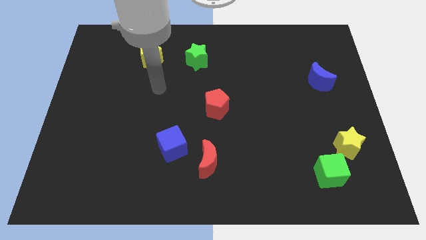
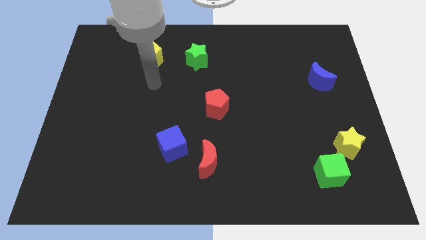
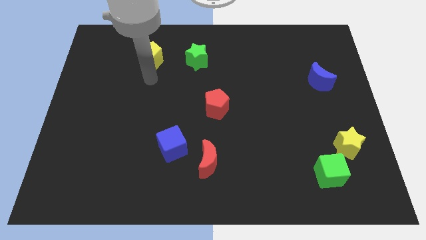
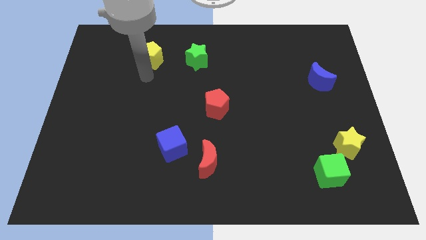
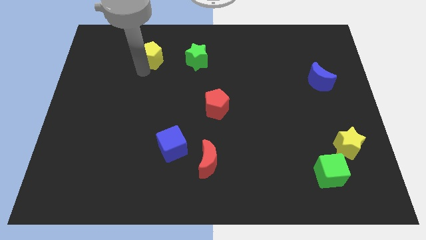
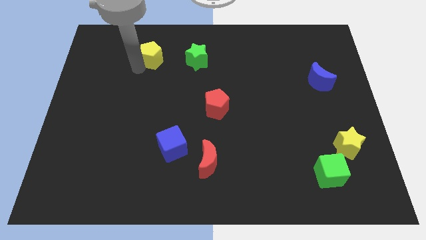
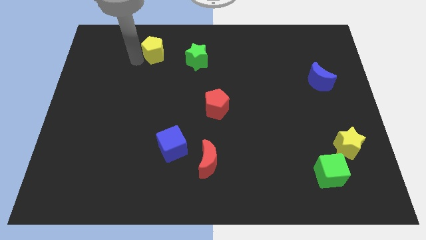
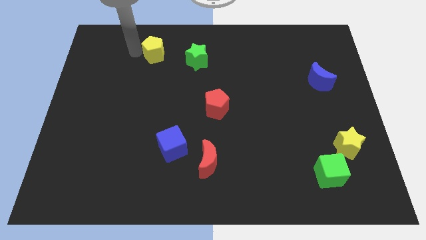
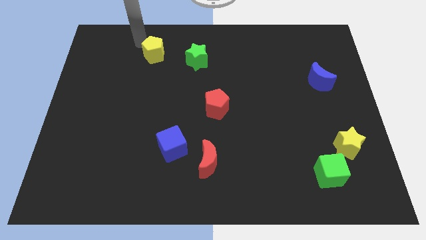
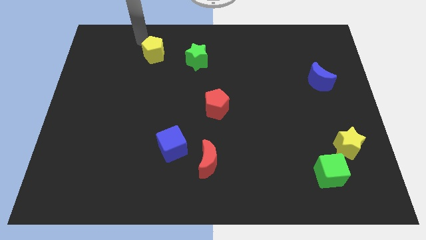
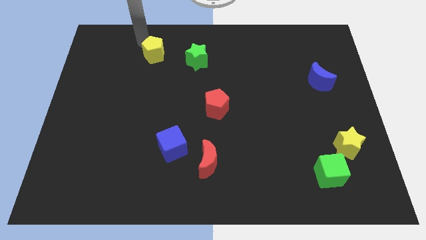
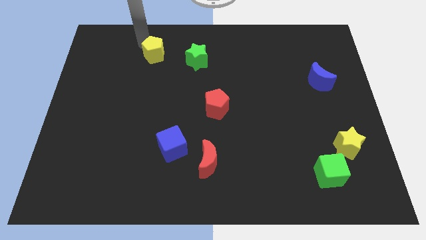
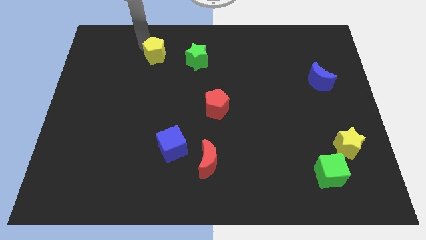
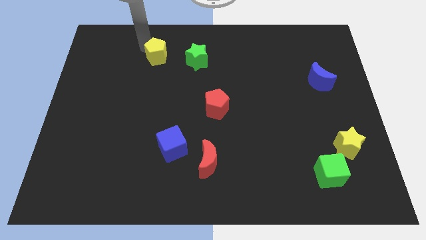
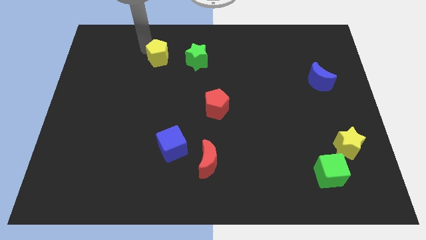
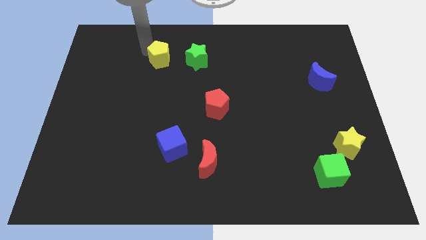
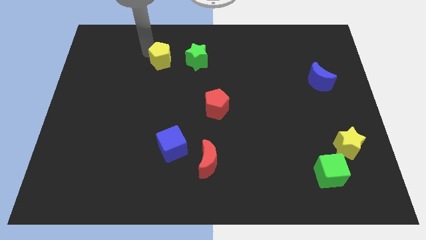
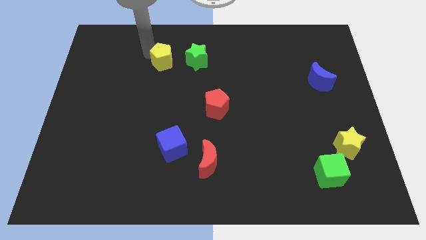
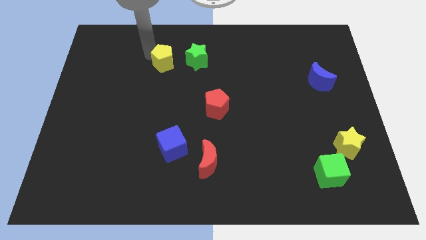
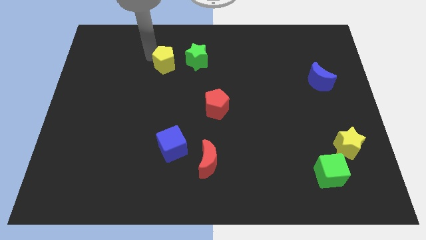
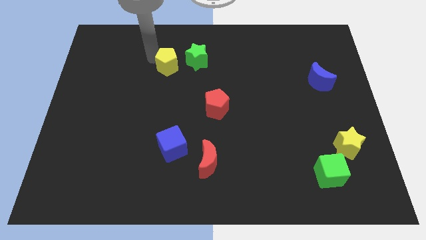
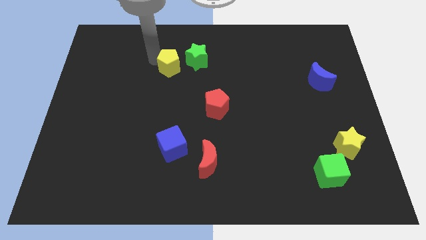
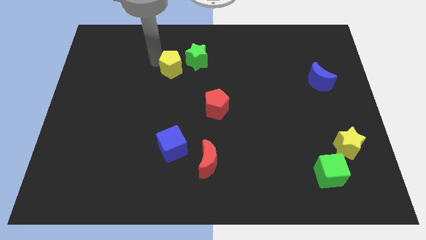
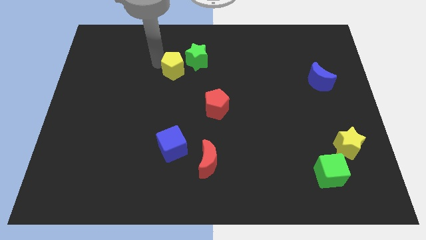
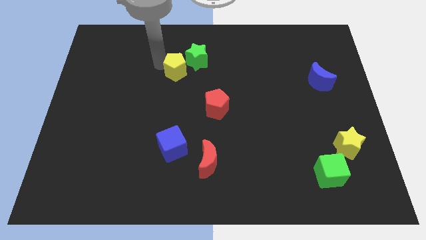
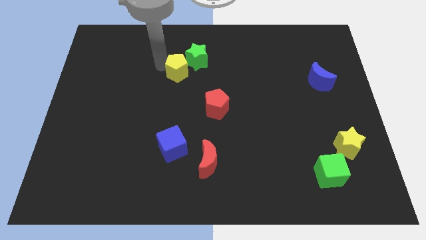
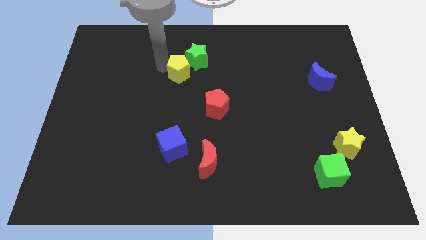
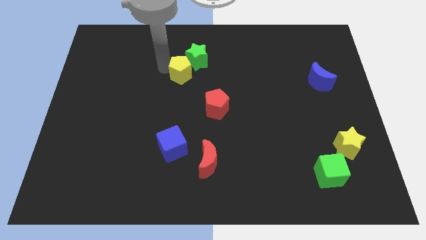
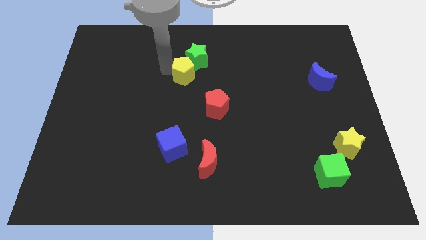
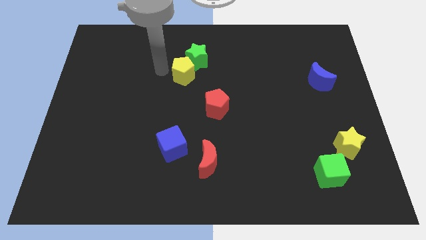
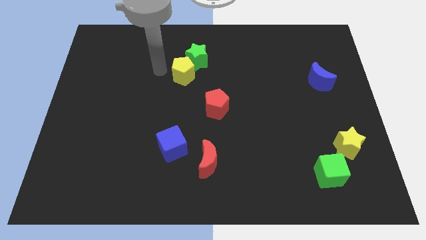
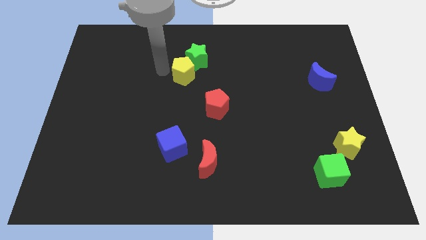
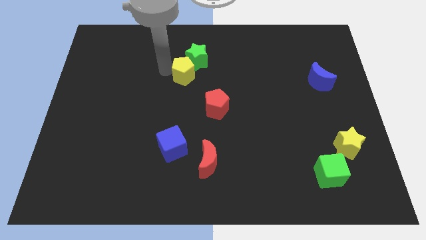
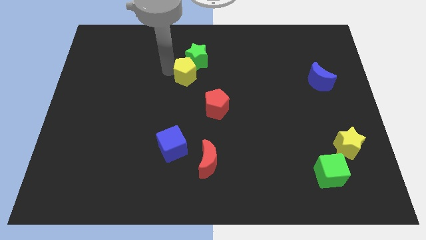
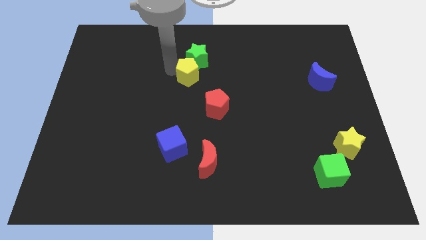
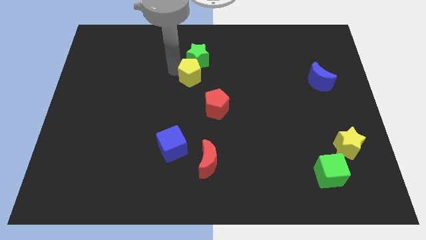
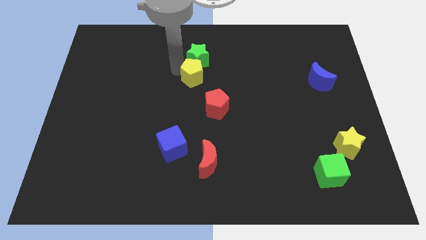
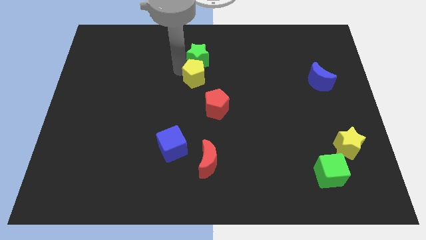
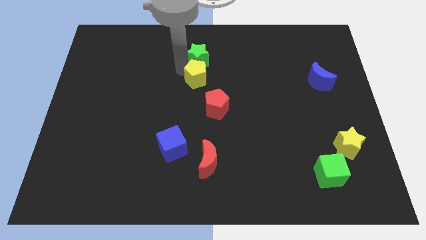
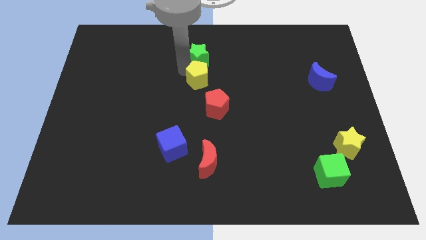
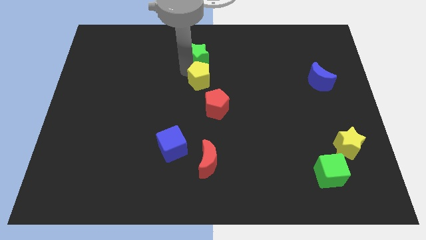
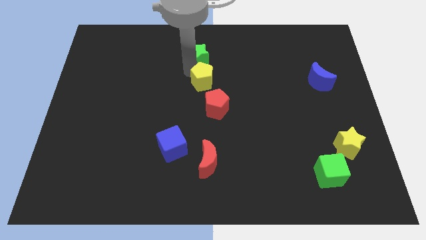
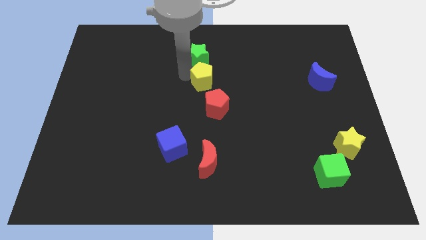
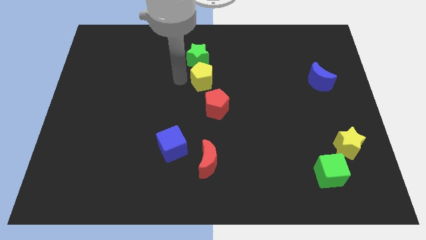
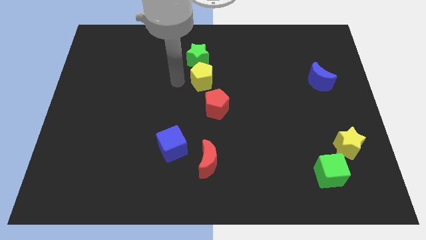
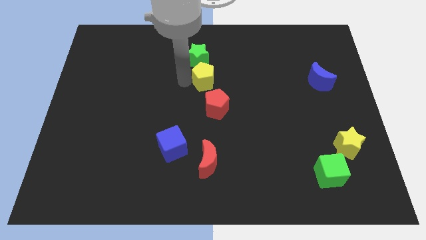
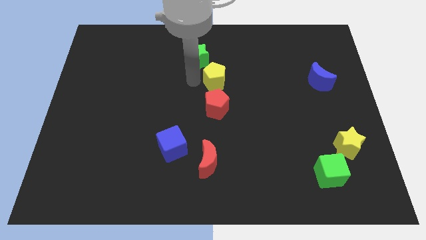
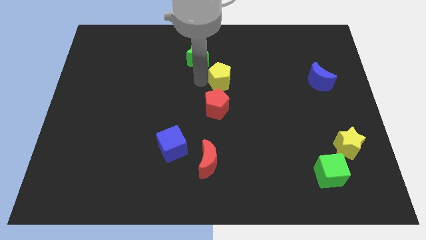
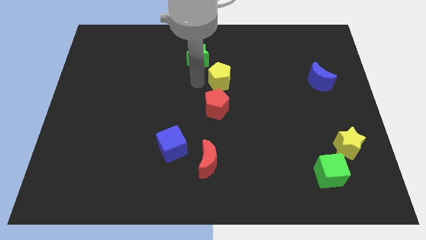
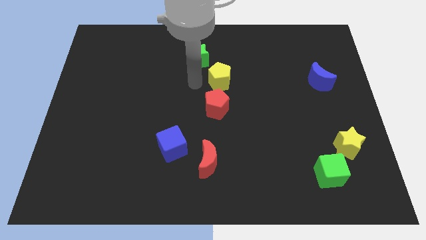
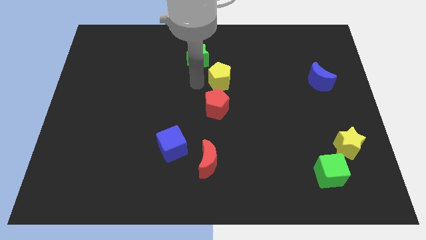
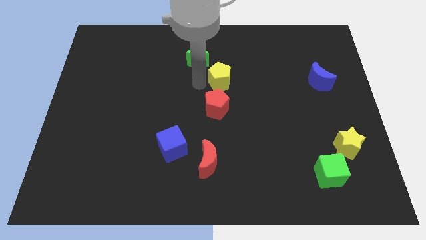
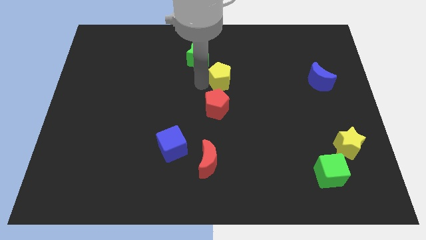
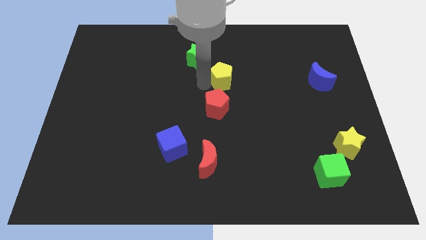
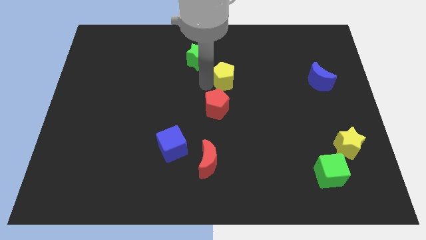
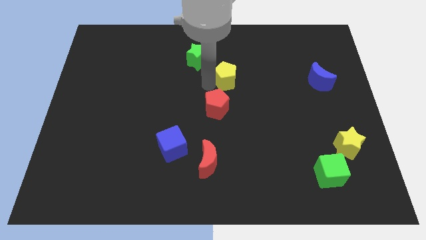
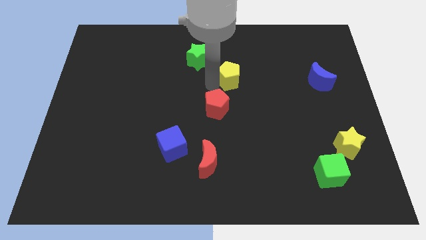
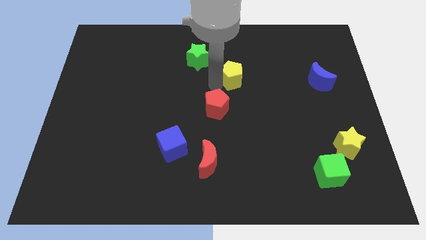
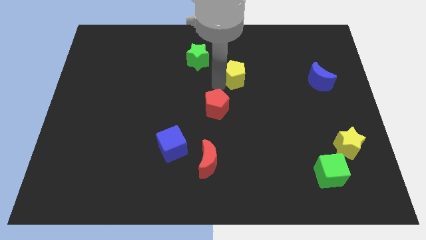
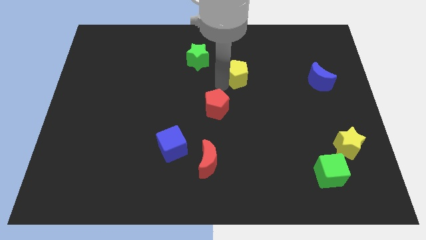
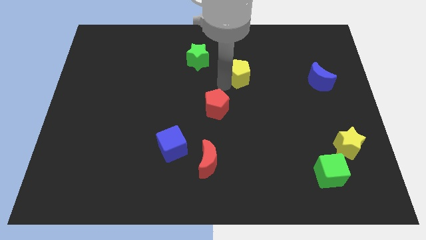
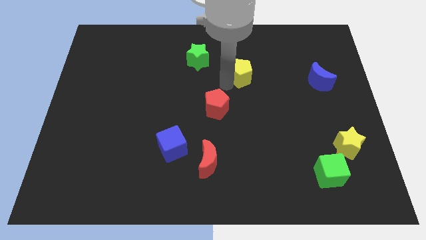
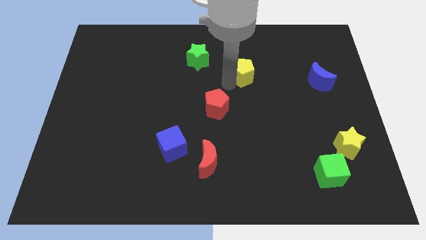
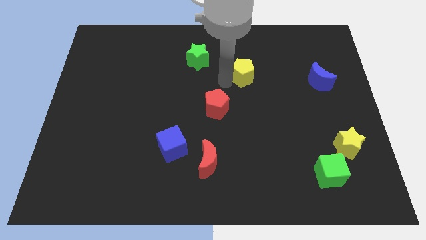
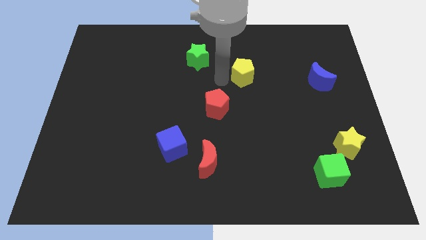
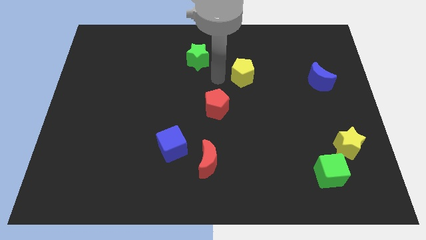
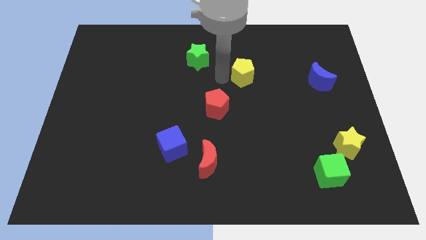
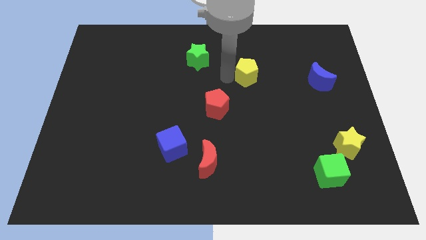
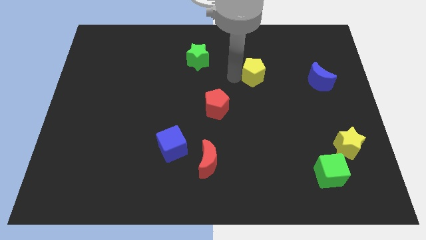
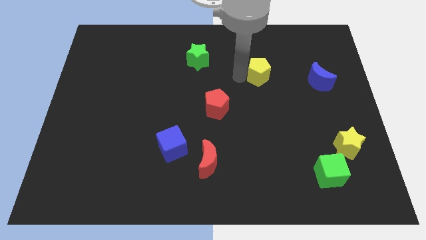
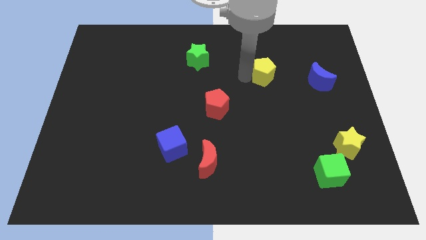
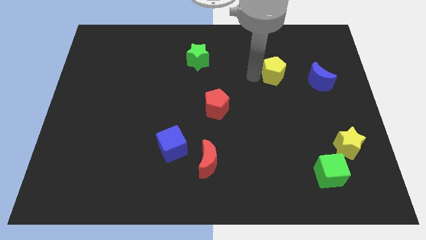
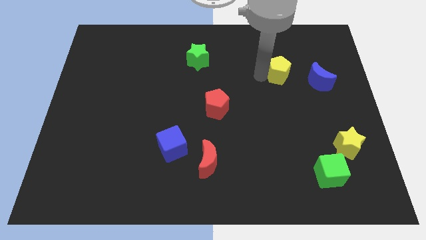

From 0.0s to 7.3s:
slide the yellow pentagon to the top left side of the blue moon

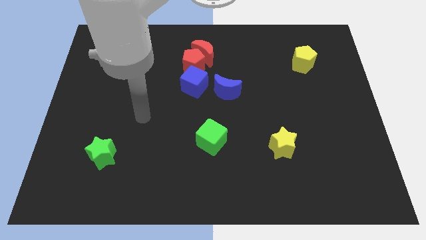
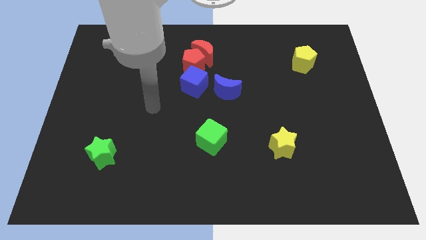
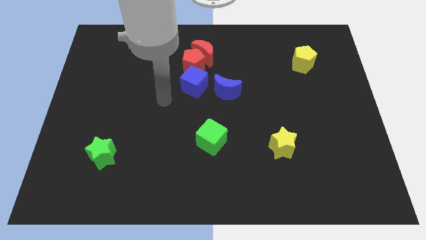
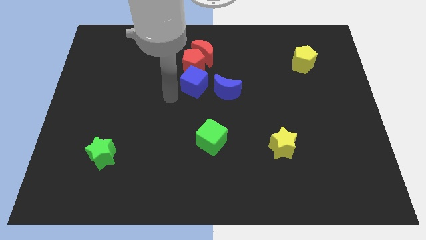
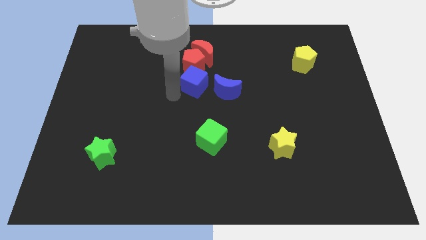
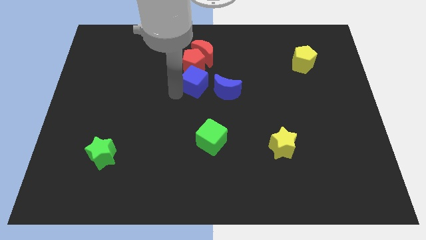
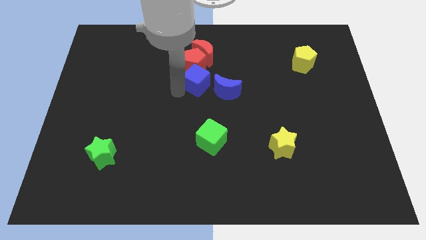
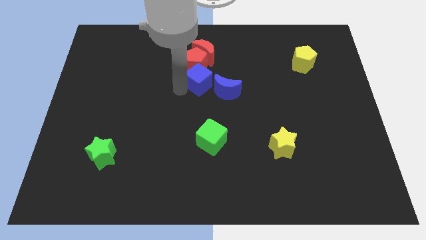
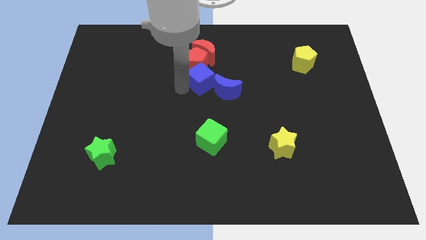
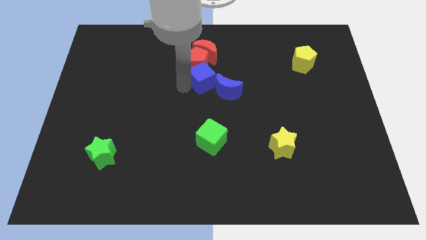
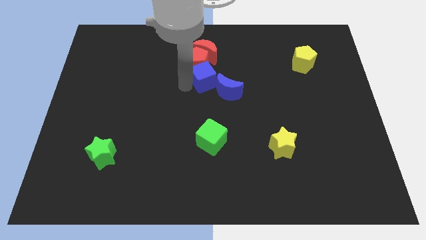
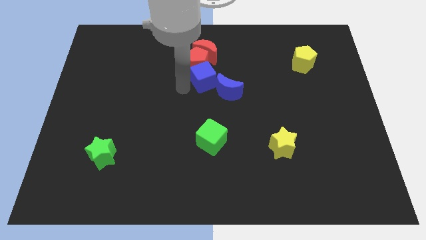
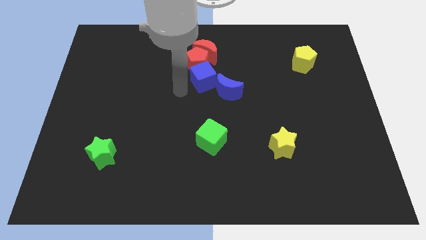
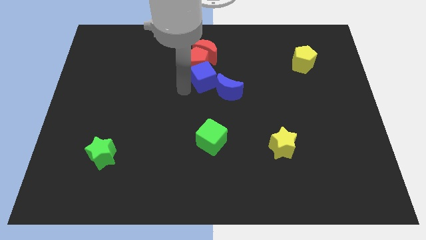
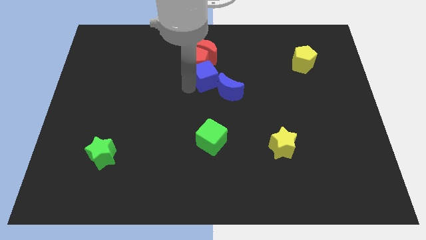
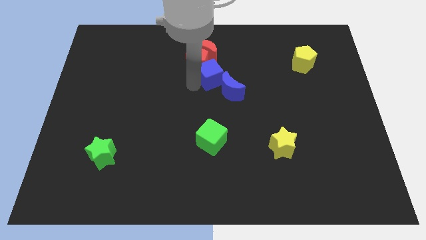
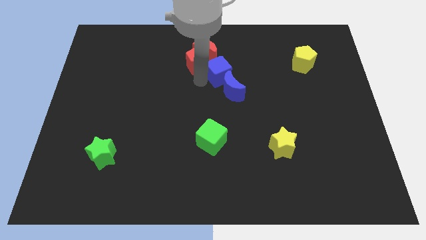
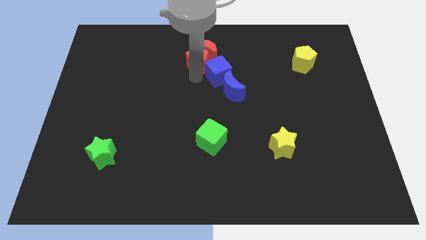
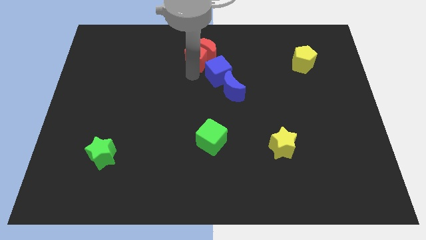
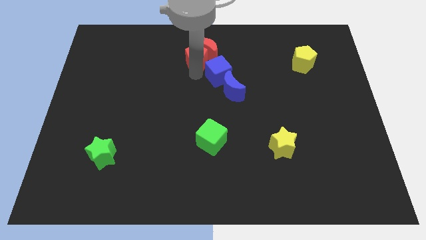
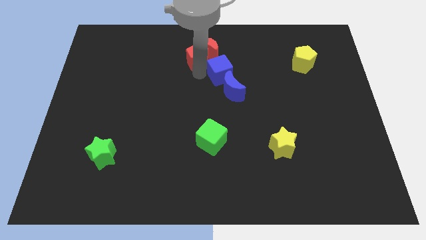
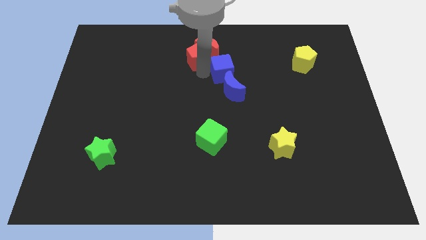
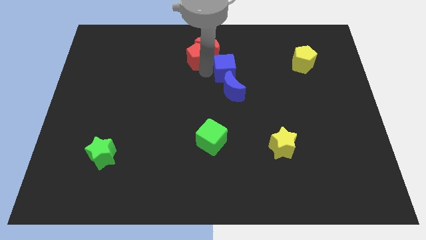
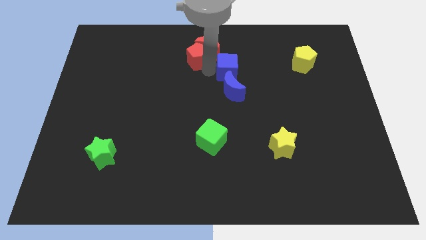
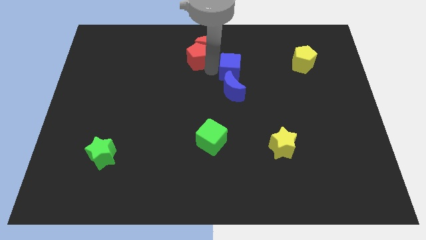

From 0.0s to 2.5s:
move the blue cube to the top right of the blue moon
